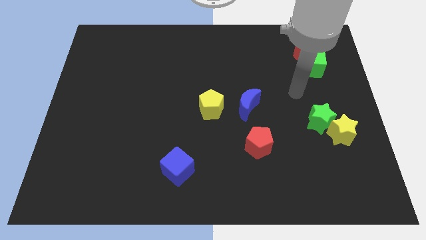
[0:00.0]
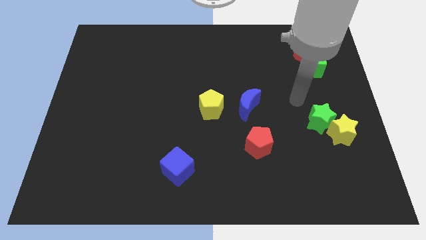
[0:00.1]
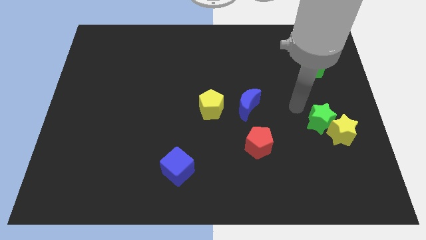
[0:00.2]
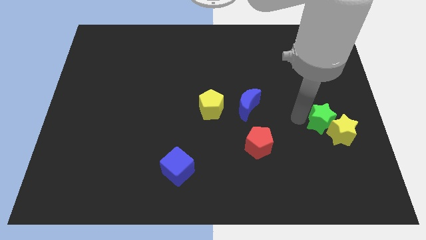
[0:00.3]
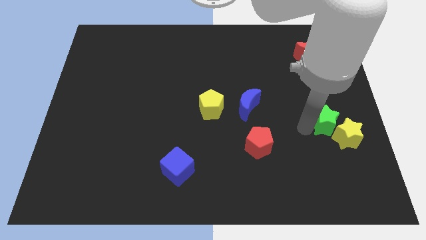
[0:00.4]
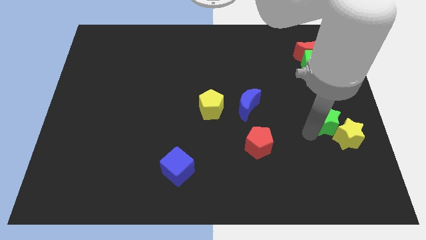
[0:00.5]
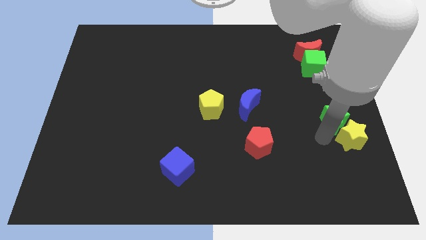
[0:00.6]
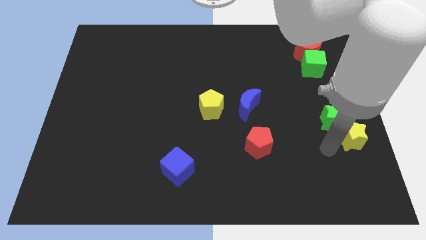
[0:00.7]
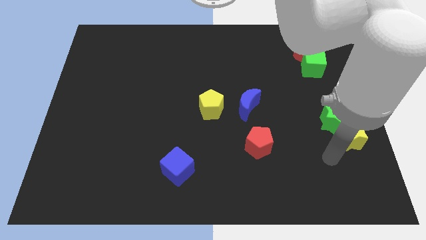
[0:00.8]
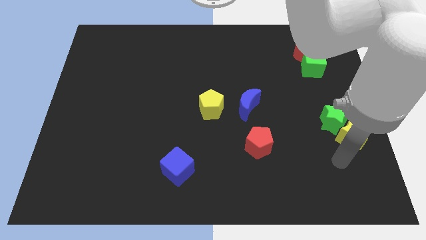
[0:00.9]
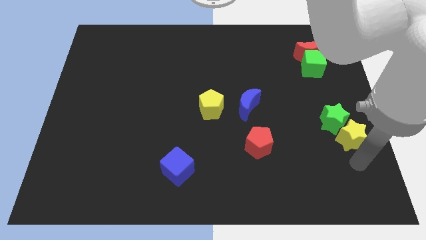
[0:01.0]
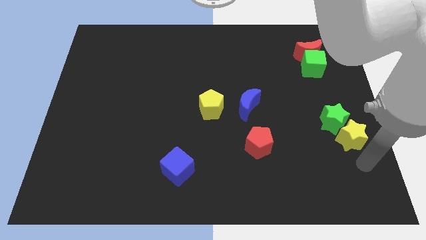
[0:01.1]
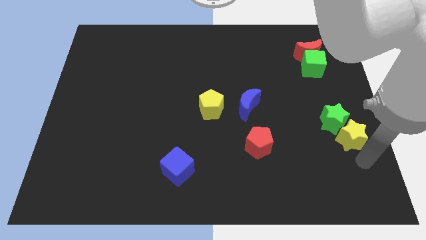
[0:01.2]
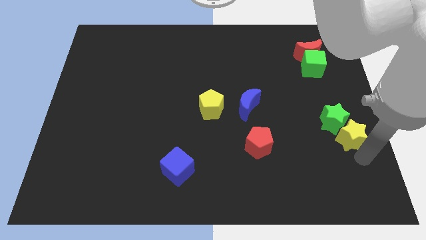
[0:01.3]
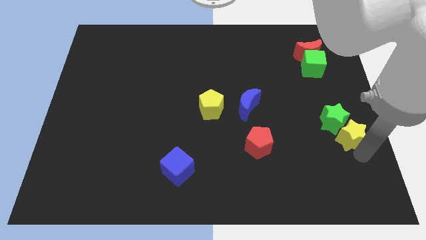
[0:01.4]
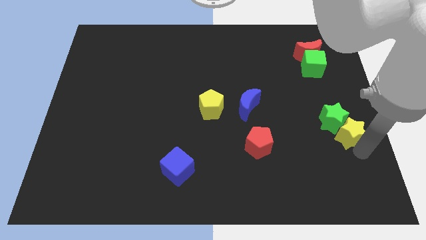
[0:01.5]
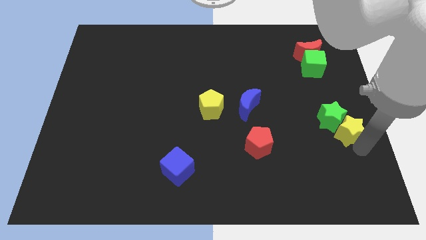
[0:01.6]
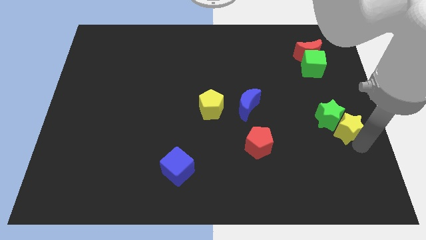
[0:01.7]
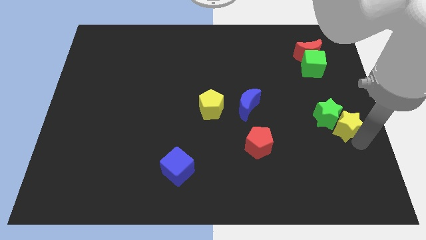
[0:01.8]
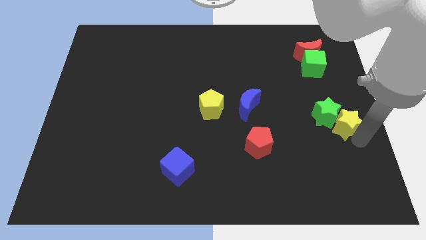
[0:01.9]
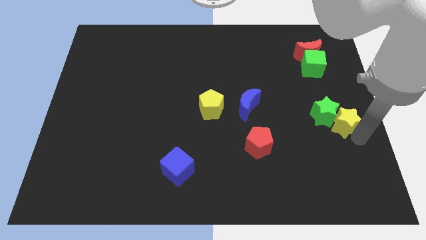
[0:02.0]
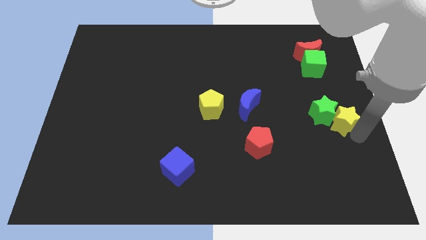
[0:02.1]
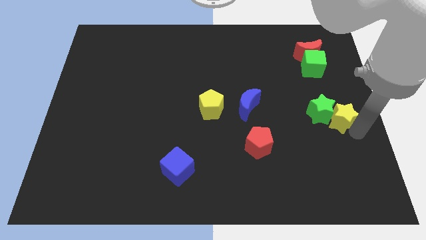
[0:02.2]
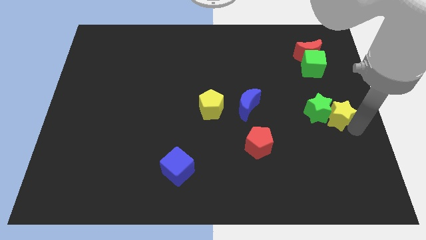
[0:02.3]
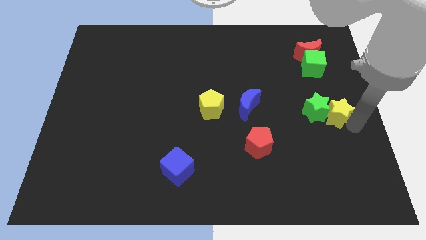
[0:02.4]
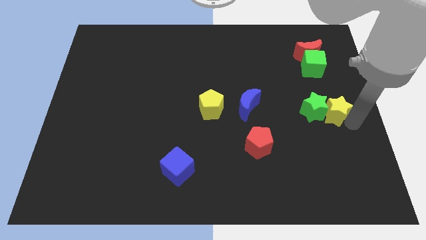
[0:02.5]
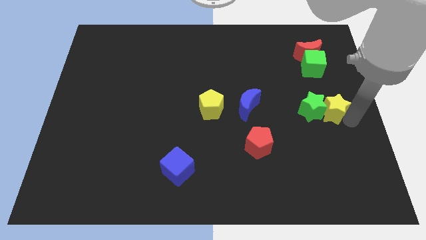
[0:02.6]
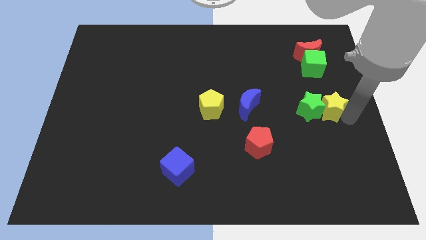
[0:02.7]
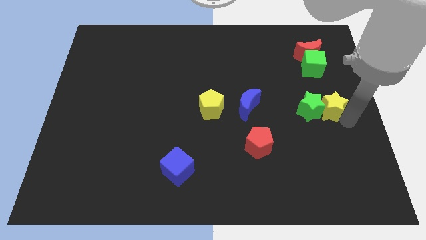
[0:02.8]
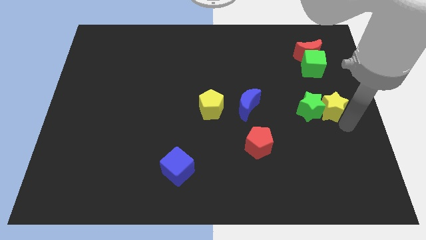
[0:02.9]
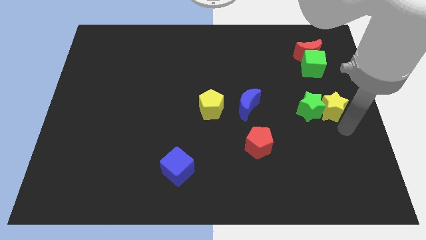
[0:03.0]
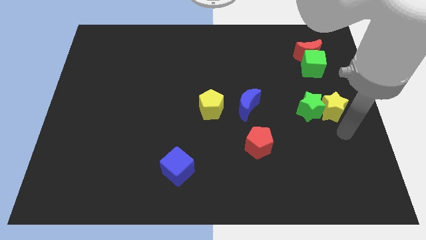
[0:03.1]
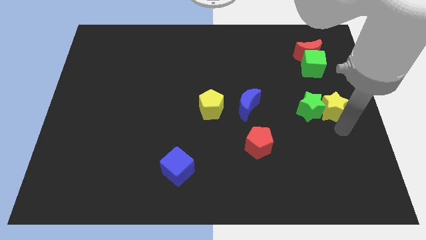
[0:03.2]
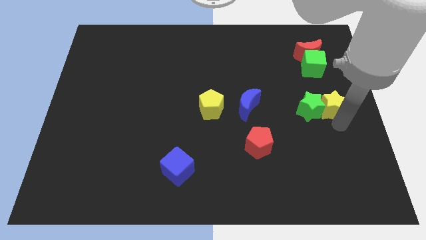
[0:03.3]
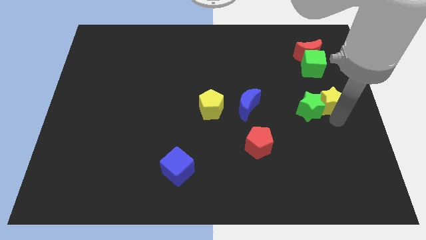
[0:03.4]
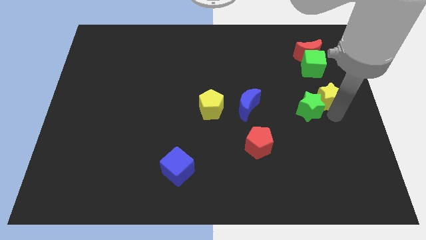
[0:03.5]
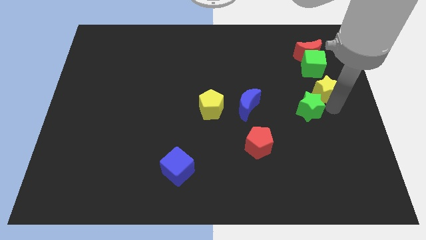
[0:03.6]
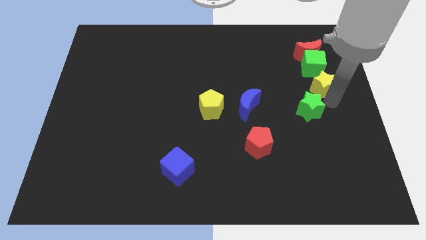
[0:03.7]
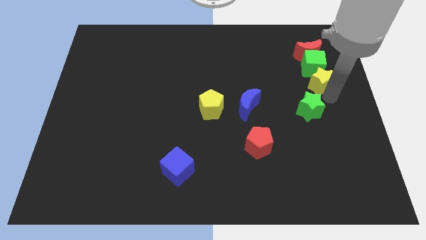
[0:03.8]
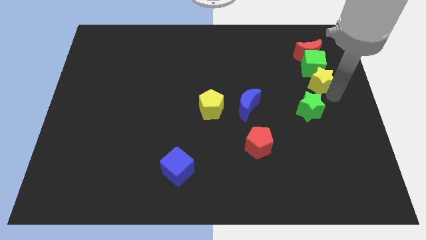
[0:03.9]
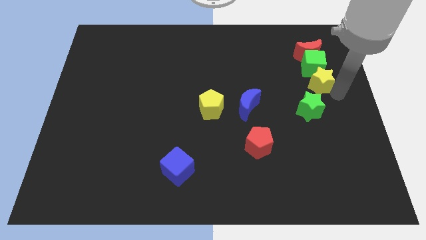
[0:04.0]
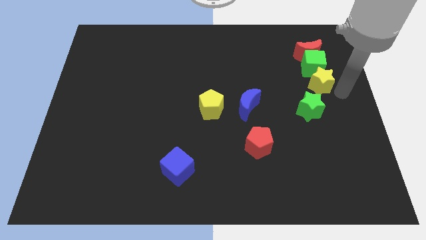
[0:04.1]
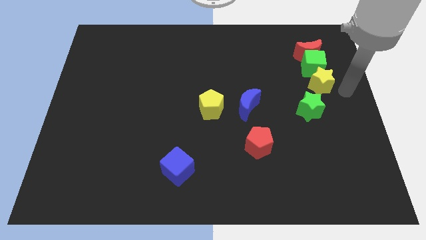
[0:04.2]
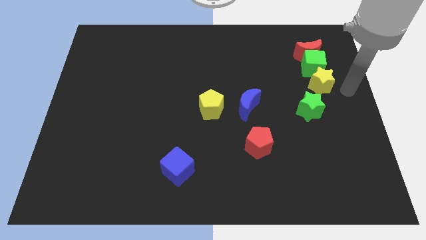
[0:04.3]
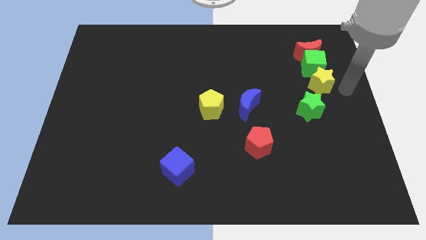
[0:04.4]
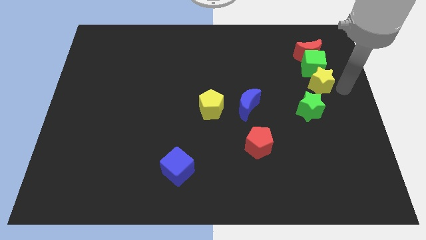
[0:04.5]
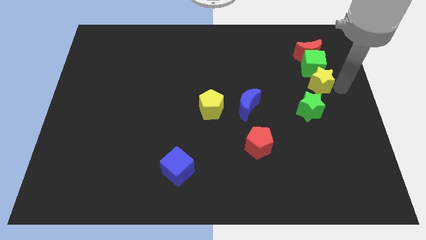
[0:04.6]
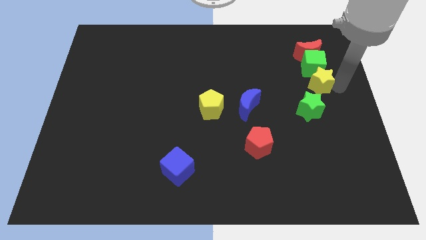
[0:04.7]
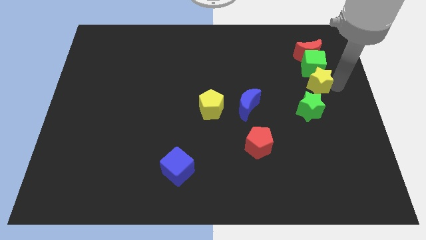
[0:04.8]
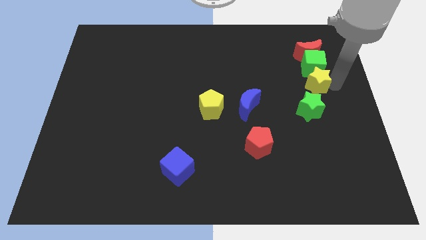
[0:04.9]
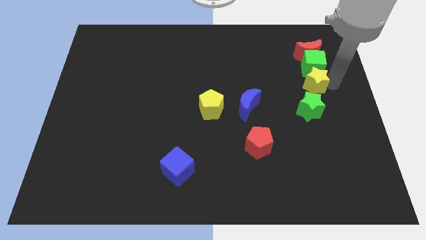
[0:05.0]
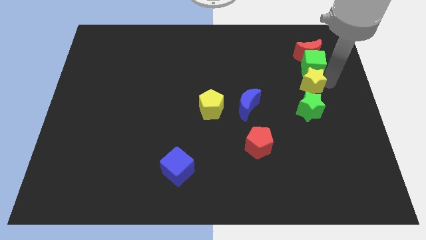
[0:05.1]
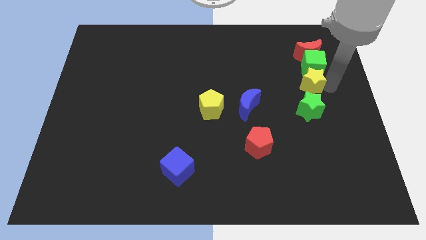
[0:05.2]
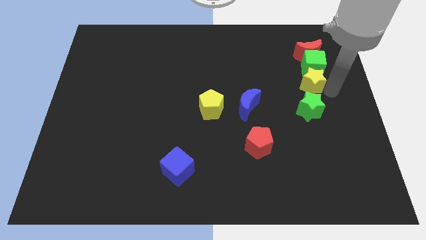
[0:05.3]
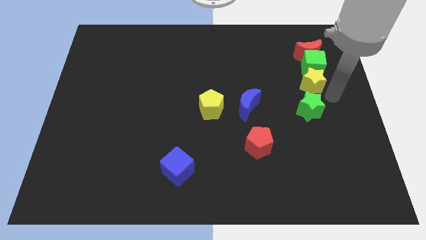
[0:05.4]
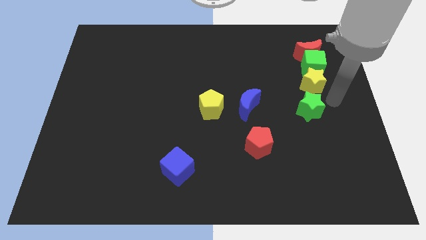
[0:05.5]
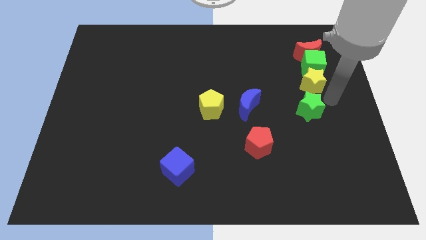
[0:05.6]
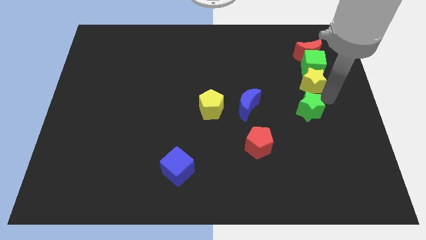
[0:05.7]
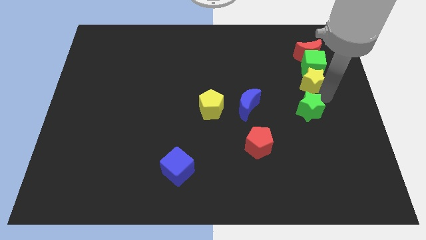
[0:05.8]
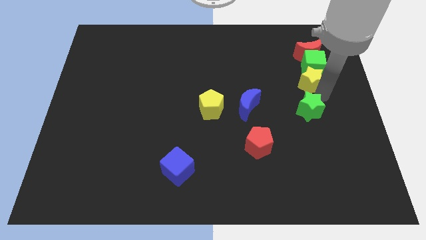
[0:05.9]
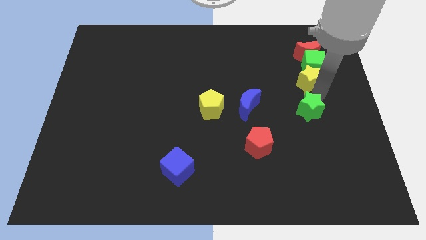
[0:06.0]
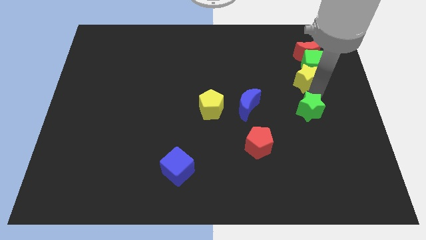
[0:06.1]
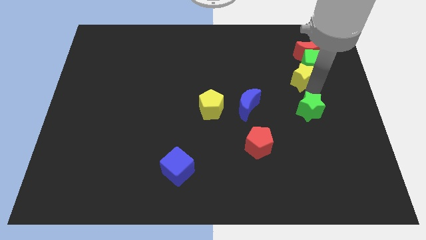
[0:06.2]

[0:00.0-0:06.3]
move the yellow star to the bottom left side of the red moon

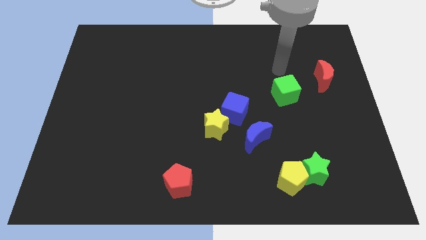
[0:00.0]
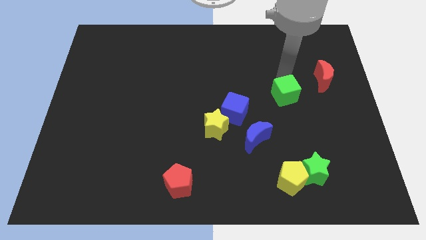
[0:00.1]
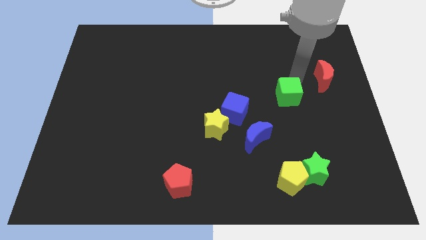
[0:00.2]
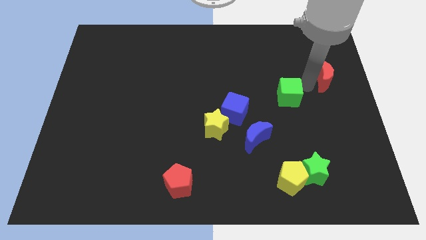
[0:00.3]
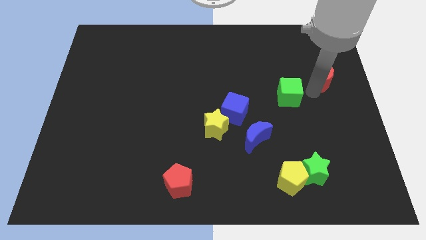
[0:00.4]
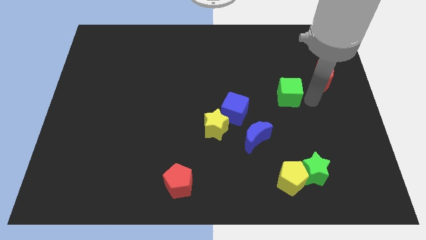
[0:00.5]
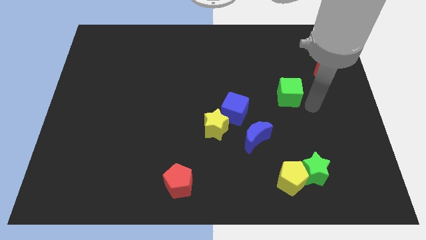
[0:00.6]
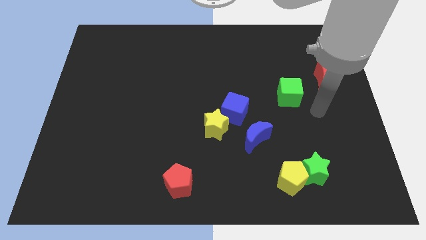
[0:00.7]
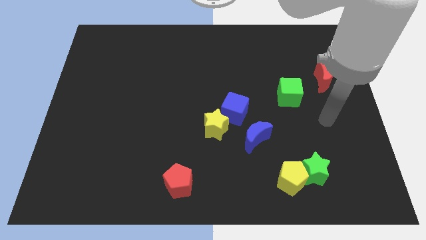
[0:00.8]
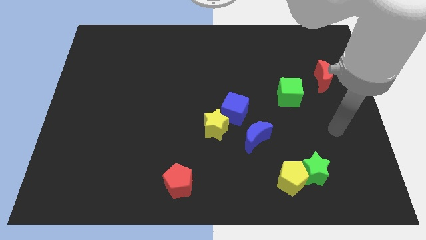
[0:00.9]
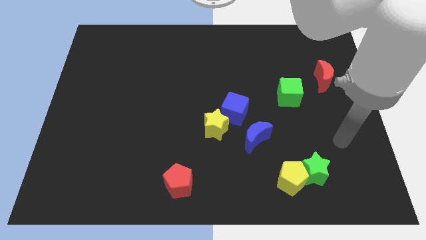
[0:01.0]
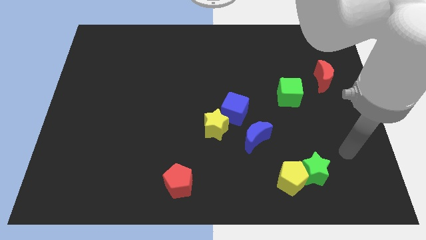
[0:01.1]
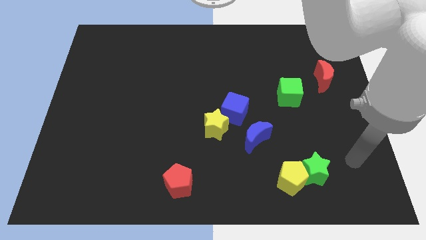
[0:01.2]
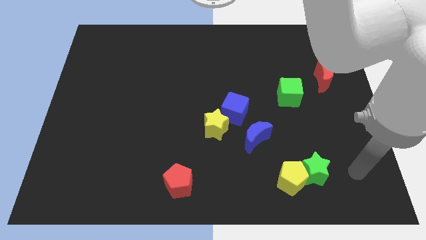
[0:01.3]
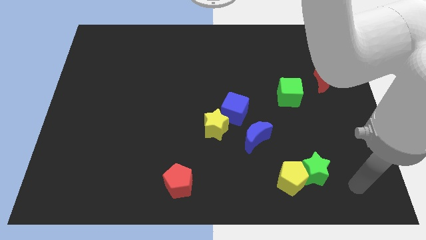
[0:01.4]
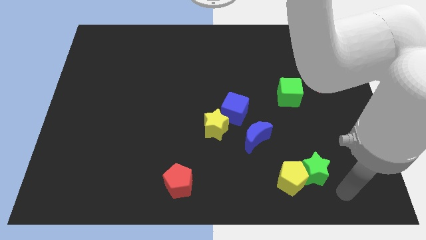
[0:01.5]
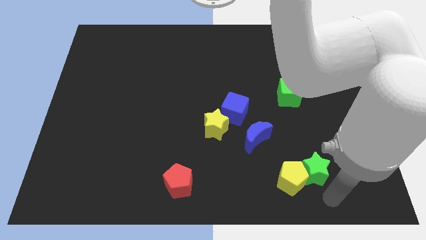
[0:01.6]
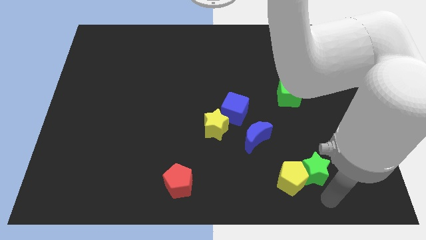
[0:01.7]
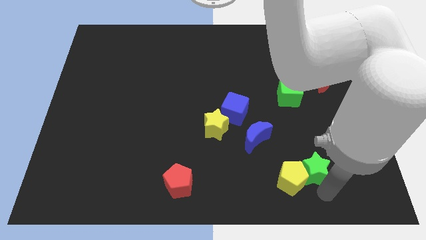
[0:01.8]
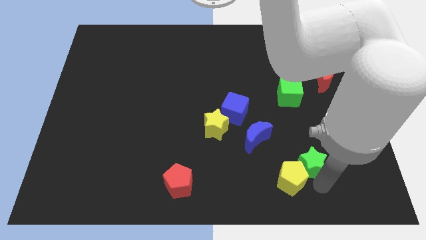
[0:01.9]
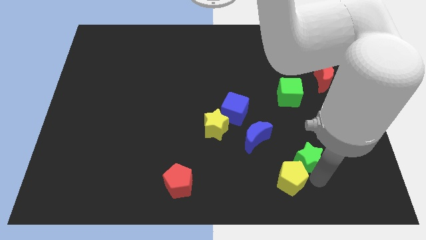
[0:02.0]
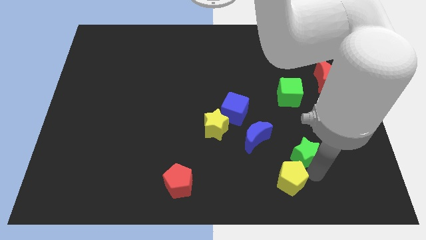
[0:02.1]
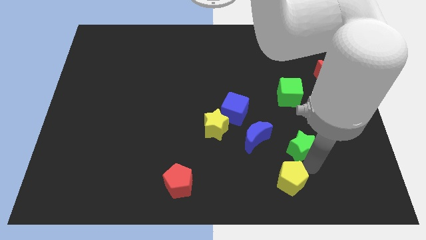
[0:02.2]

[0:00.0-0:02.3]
push the green star to the bottom of the green cube
